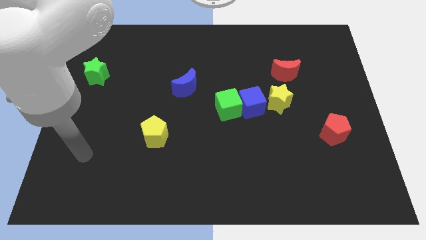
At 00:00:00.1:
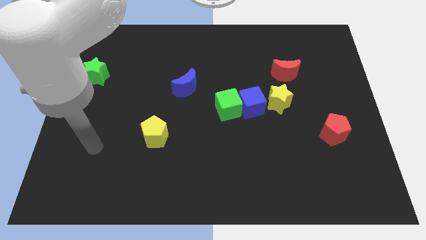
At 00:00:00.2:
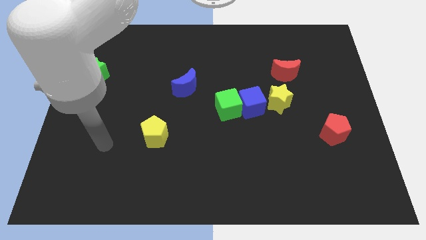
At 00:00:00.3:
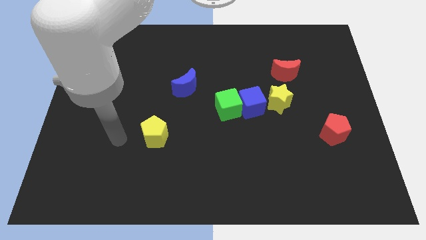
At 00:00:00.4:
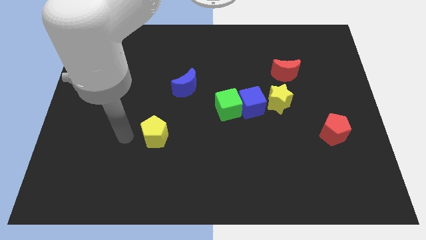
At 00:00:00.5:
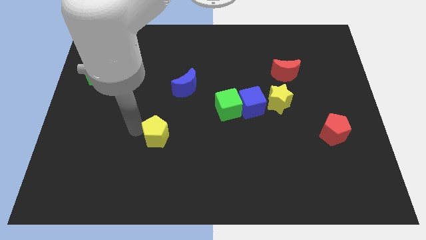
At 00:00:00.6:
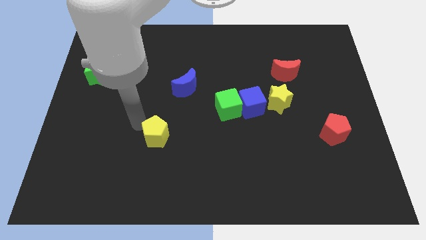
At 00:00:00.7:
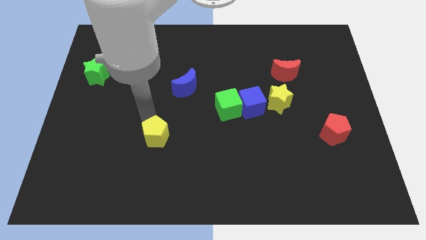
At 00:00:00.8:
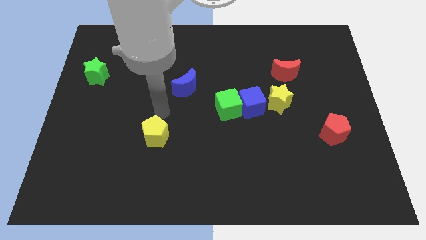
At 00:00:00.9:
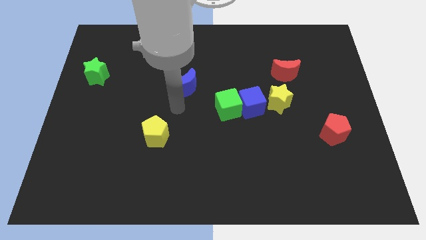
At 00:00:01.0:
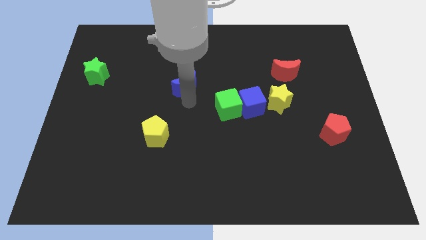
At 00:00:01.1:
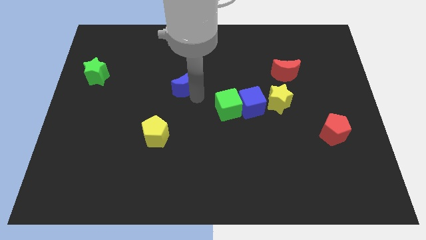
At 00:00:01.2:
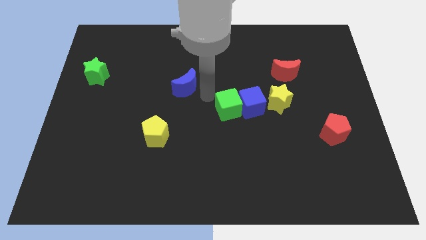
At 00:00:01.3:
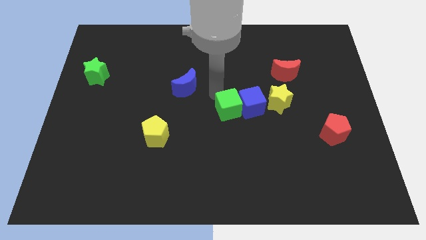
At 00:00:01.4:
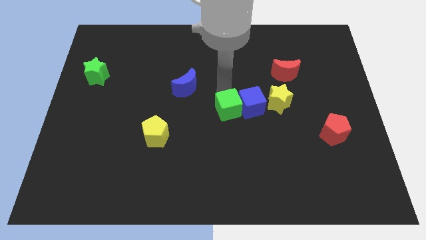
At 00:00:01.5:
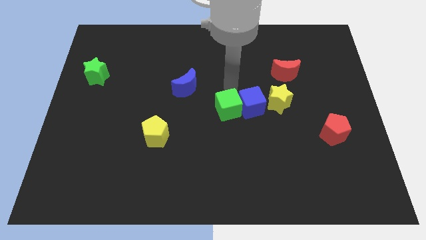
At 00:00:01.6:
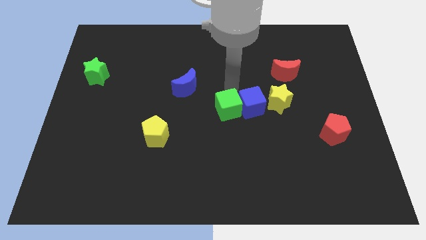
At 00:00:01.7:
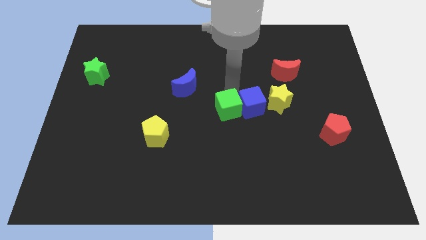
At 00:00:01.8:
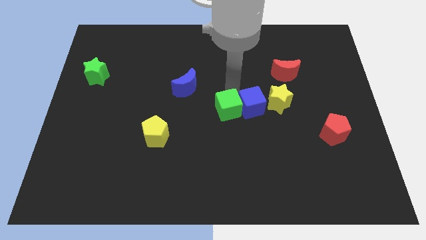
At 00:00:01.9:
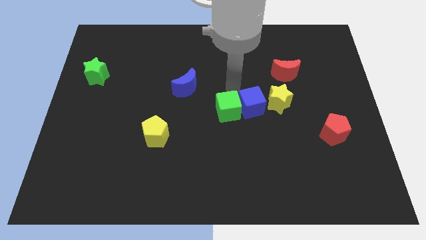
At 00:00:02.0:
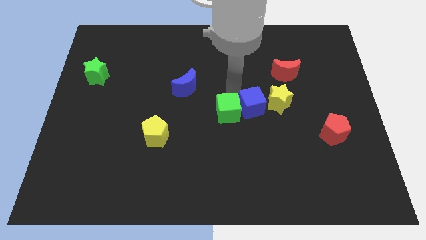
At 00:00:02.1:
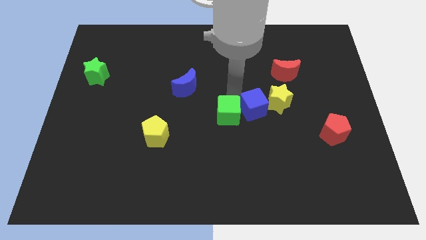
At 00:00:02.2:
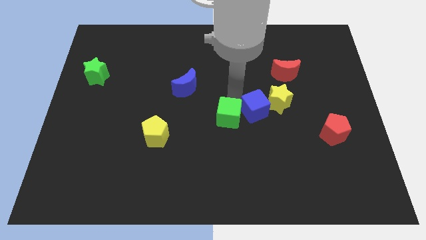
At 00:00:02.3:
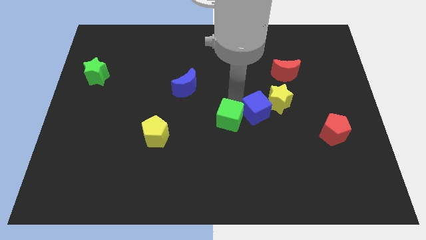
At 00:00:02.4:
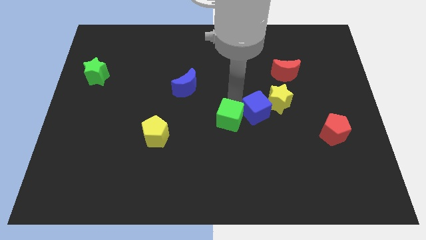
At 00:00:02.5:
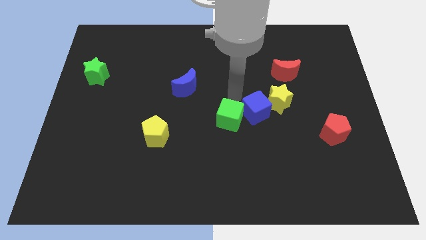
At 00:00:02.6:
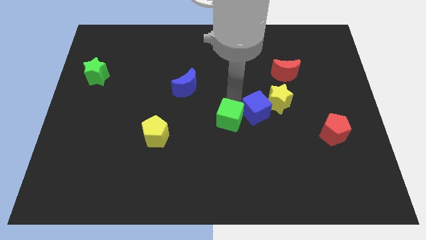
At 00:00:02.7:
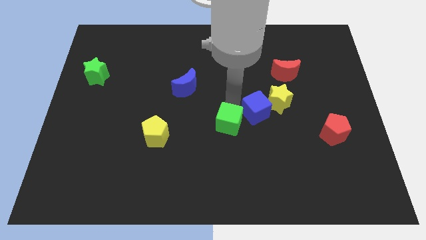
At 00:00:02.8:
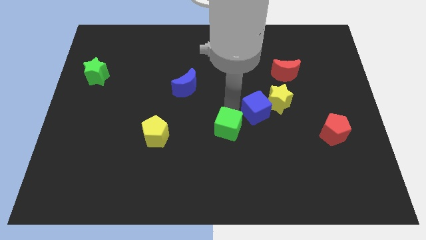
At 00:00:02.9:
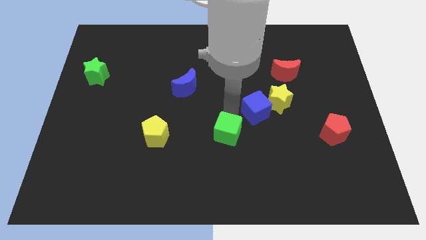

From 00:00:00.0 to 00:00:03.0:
move the green cube a bit downwards

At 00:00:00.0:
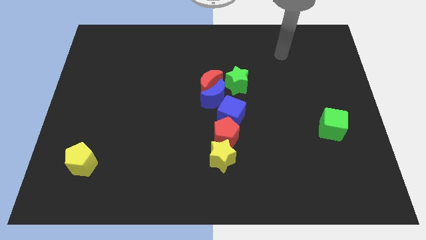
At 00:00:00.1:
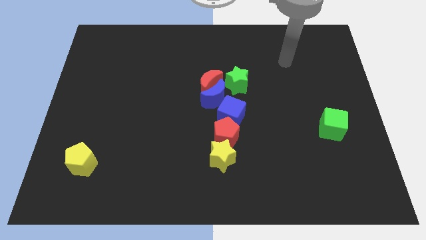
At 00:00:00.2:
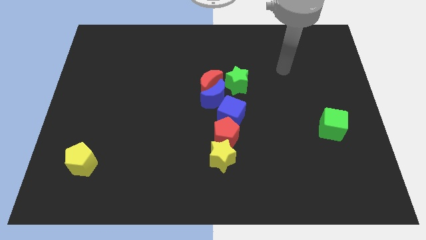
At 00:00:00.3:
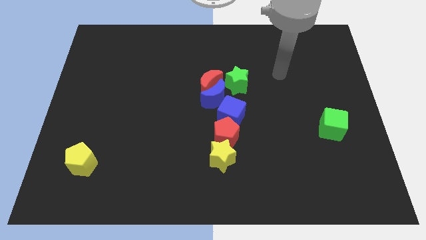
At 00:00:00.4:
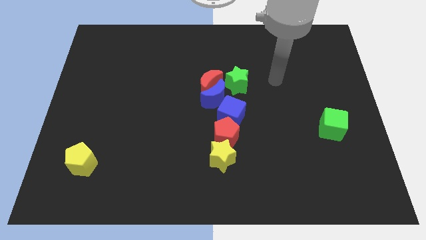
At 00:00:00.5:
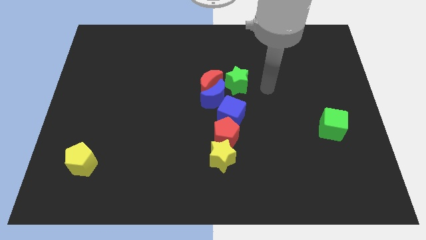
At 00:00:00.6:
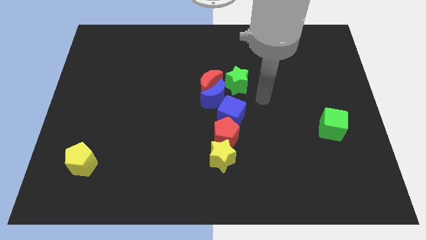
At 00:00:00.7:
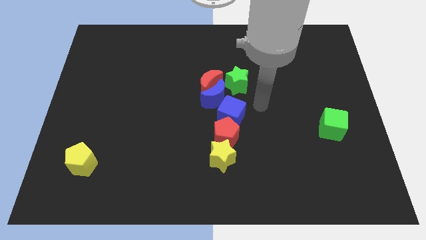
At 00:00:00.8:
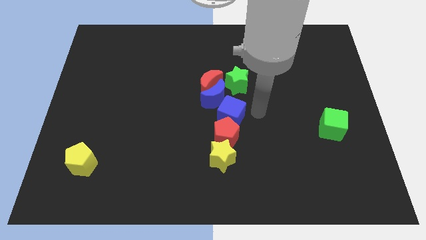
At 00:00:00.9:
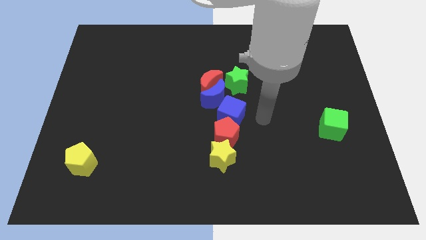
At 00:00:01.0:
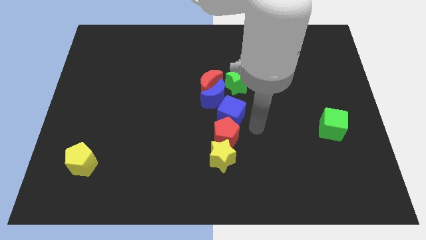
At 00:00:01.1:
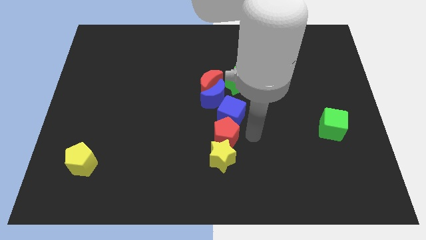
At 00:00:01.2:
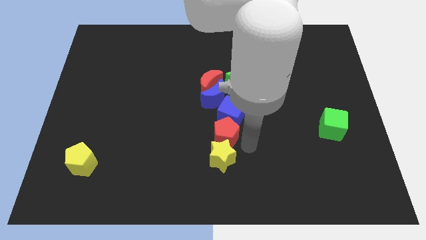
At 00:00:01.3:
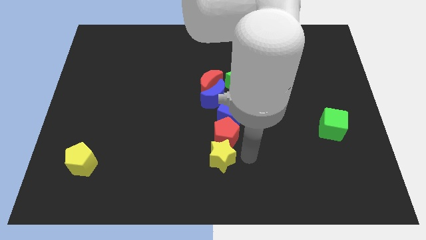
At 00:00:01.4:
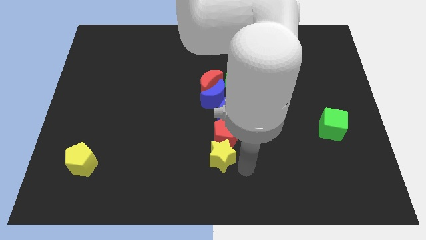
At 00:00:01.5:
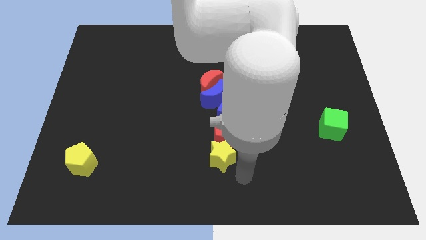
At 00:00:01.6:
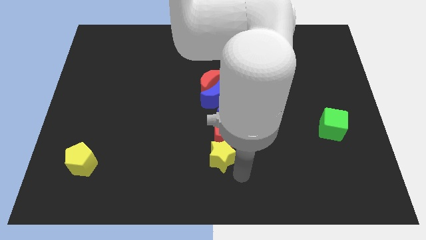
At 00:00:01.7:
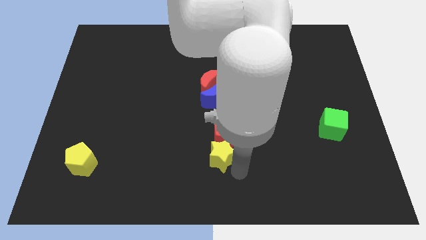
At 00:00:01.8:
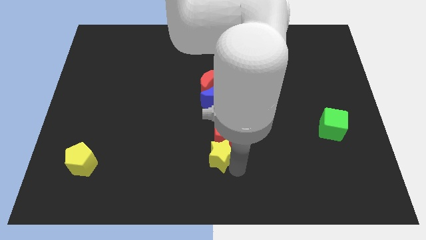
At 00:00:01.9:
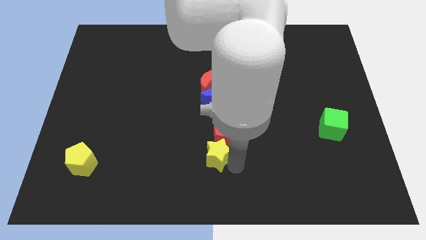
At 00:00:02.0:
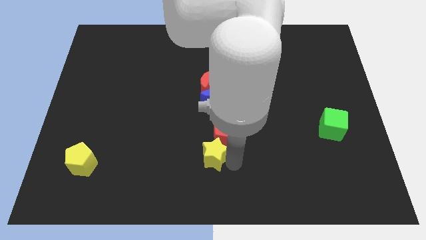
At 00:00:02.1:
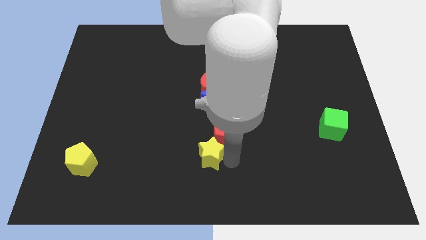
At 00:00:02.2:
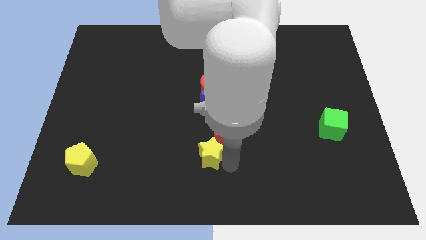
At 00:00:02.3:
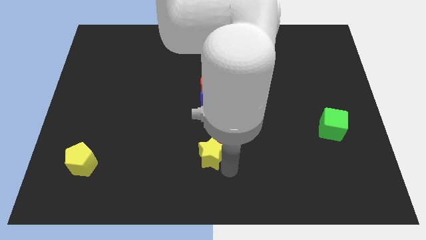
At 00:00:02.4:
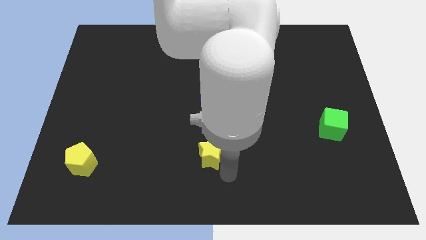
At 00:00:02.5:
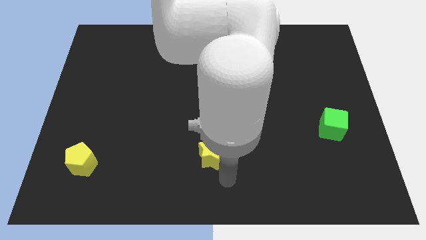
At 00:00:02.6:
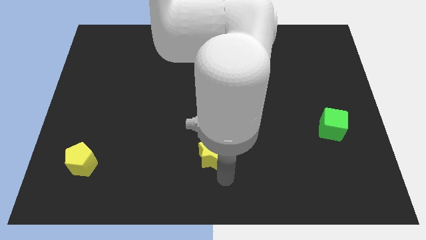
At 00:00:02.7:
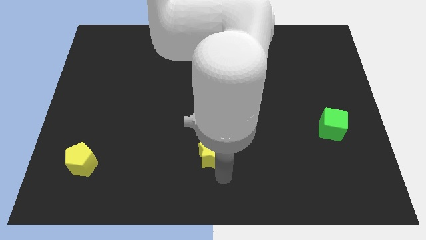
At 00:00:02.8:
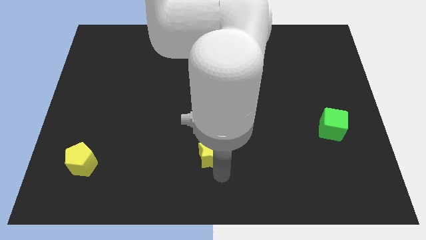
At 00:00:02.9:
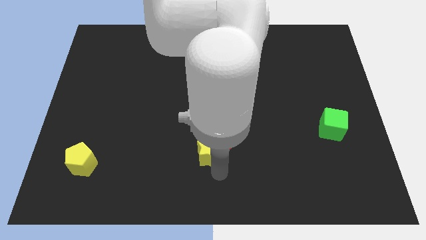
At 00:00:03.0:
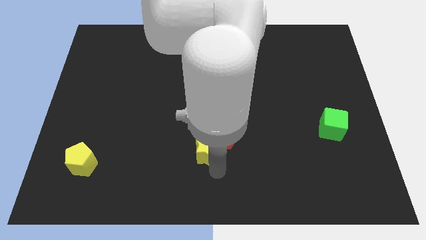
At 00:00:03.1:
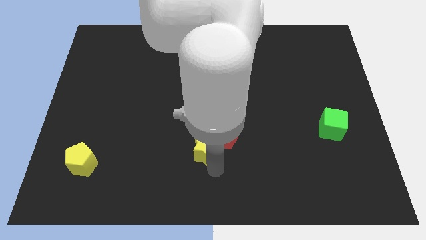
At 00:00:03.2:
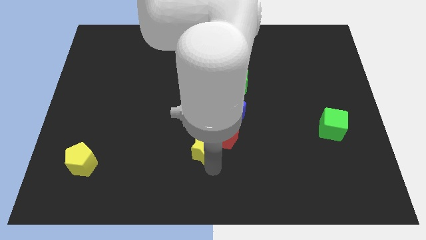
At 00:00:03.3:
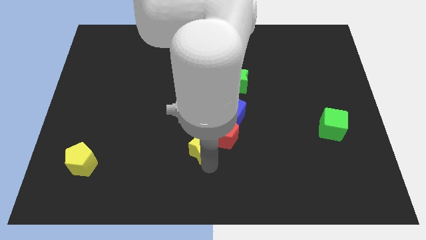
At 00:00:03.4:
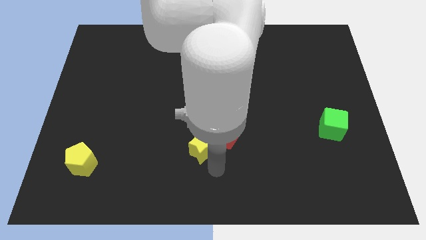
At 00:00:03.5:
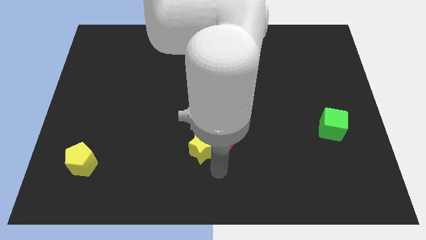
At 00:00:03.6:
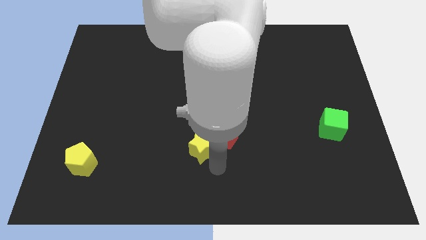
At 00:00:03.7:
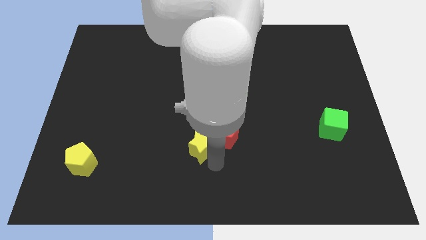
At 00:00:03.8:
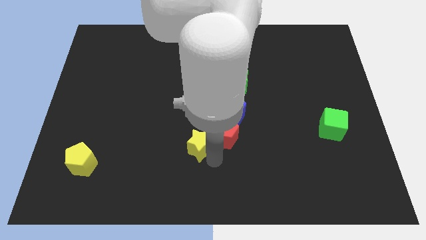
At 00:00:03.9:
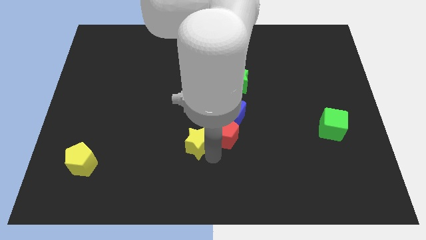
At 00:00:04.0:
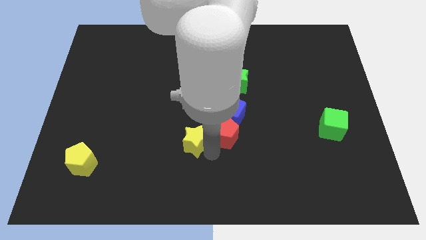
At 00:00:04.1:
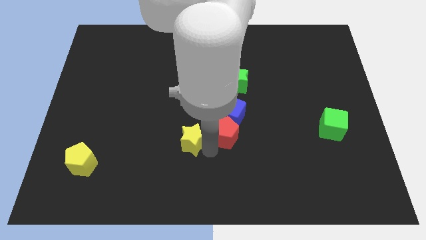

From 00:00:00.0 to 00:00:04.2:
push the yellow star a little upwards and then left

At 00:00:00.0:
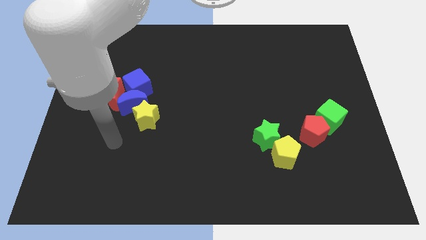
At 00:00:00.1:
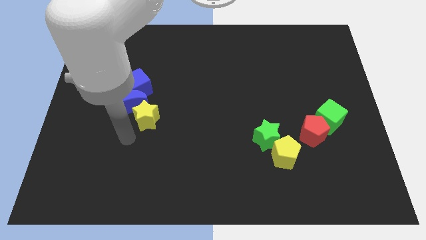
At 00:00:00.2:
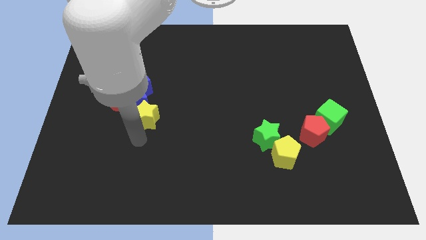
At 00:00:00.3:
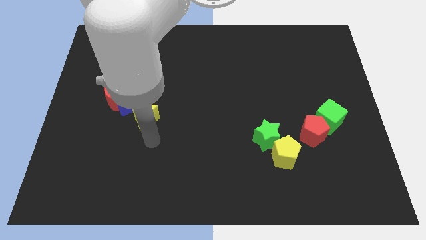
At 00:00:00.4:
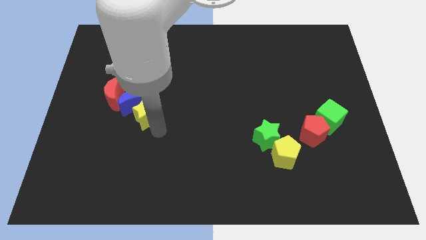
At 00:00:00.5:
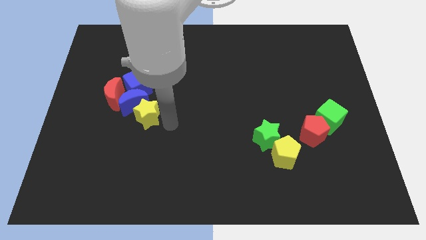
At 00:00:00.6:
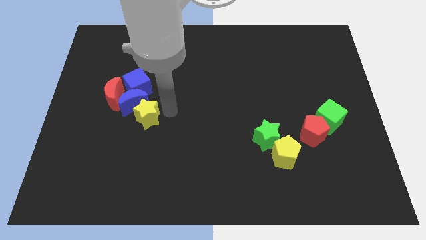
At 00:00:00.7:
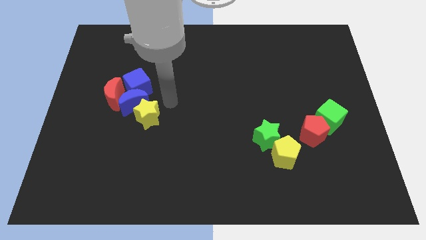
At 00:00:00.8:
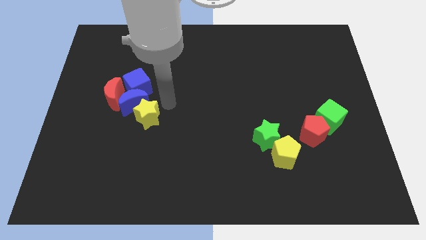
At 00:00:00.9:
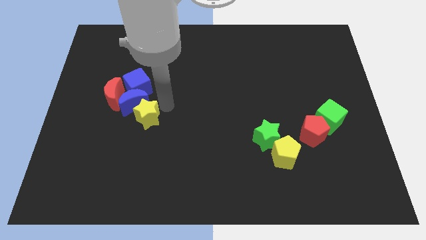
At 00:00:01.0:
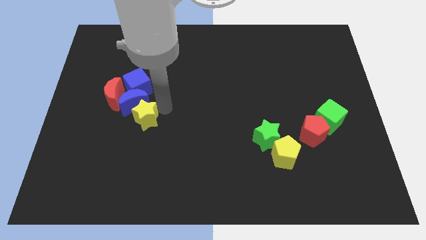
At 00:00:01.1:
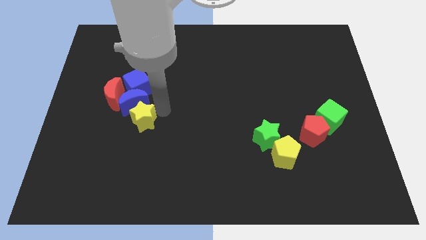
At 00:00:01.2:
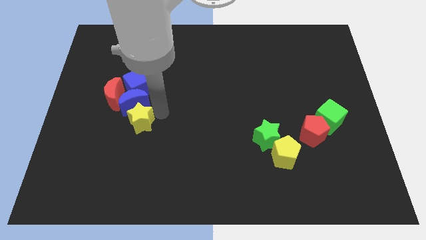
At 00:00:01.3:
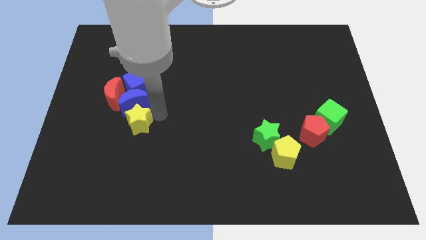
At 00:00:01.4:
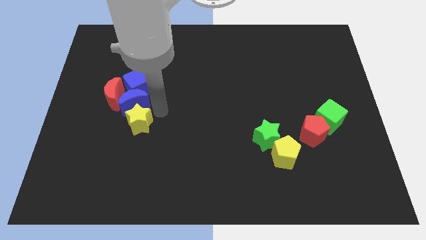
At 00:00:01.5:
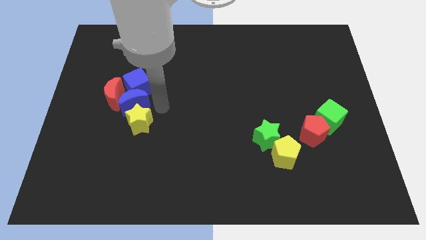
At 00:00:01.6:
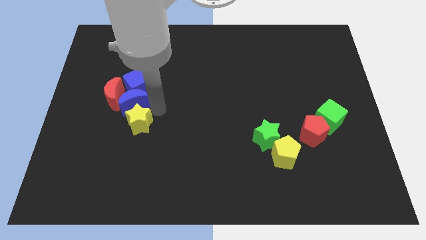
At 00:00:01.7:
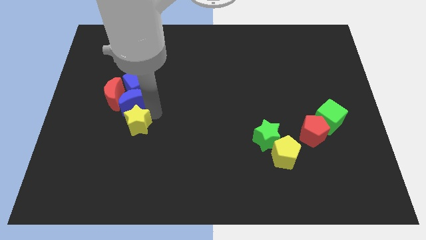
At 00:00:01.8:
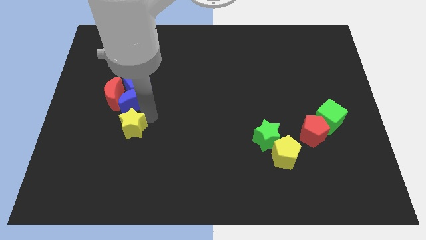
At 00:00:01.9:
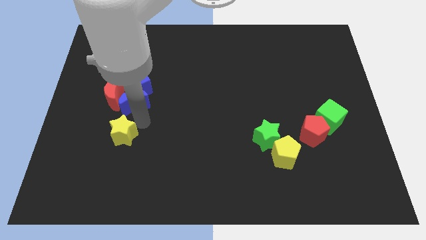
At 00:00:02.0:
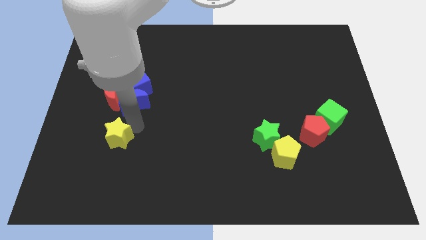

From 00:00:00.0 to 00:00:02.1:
push the yellow star a bit down and to the left
